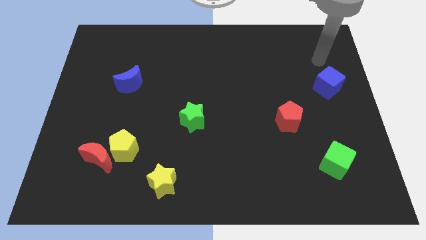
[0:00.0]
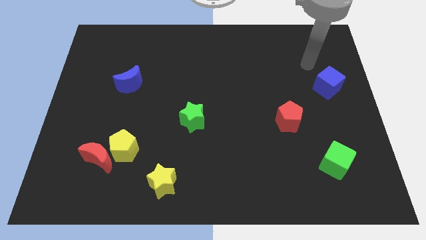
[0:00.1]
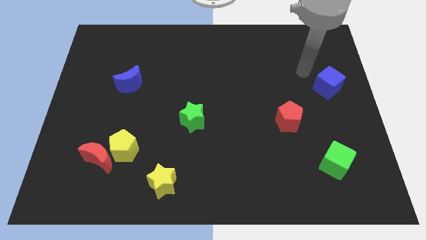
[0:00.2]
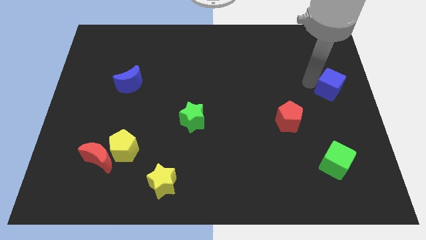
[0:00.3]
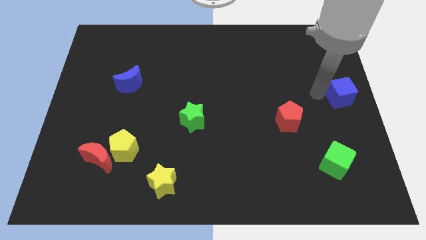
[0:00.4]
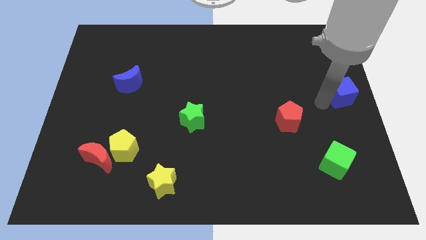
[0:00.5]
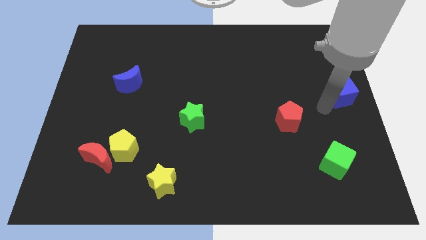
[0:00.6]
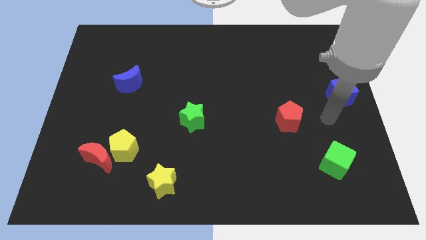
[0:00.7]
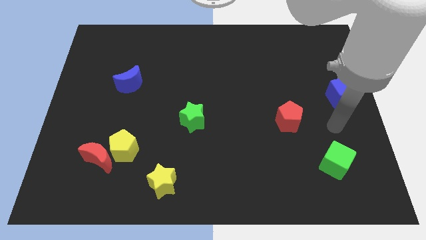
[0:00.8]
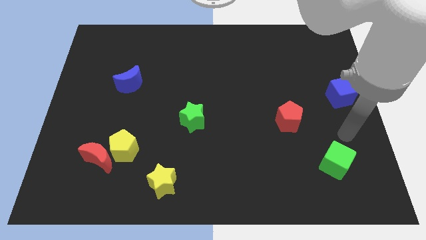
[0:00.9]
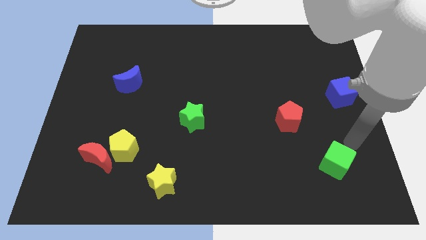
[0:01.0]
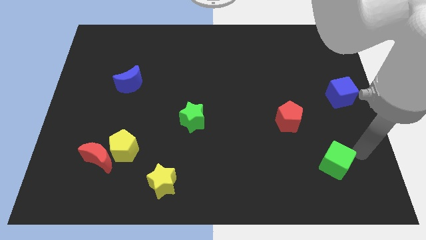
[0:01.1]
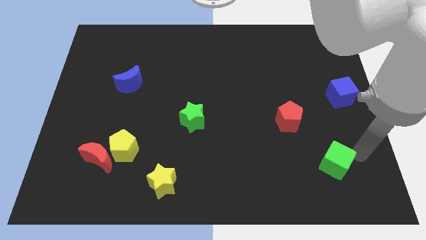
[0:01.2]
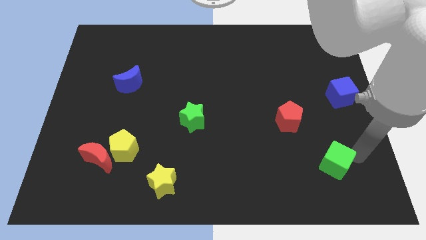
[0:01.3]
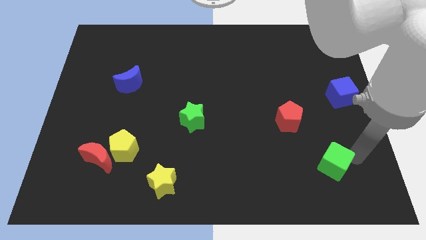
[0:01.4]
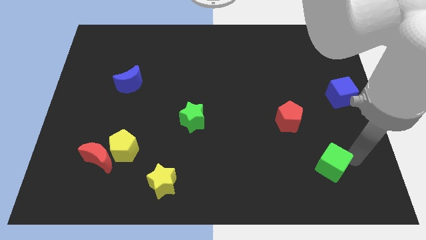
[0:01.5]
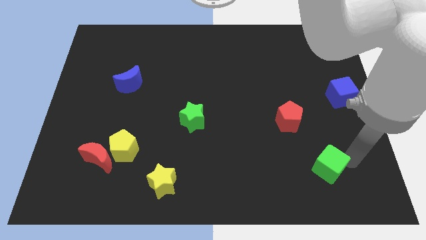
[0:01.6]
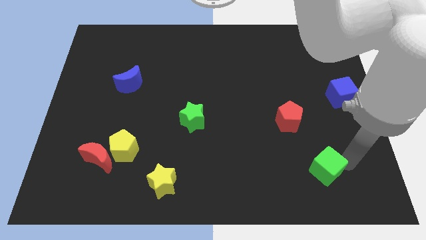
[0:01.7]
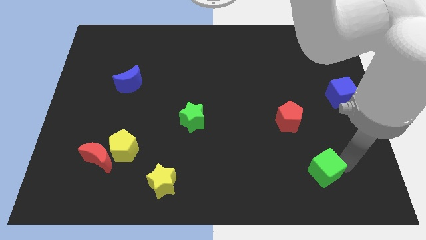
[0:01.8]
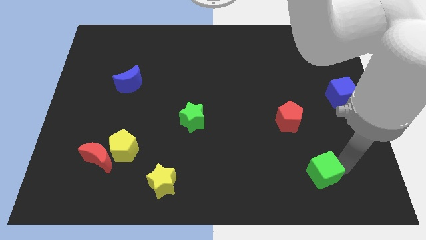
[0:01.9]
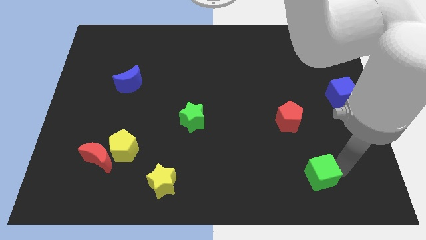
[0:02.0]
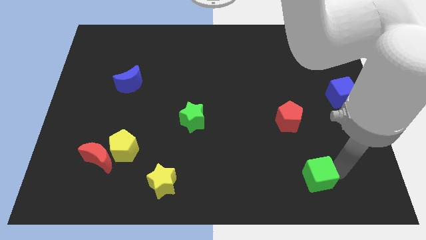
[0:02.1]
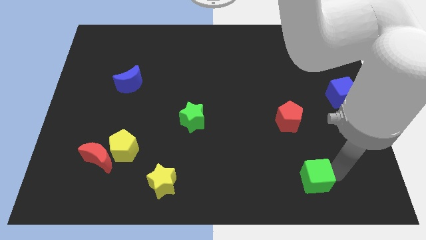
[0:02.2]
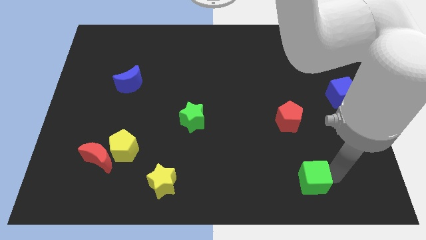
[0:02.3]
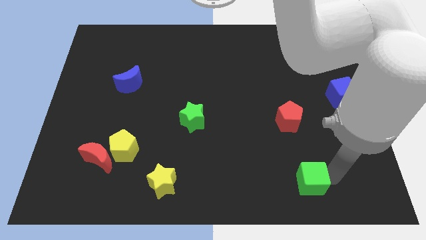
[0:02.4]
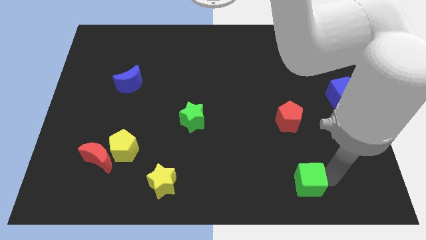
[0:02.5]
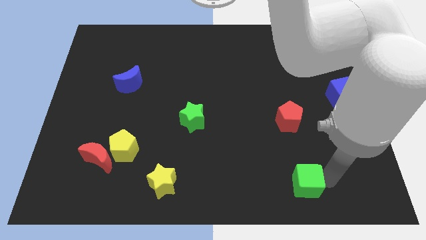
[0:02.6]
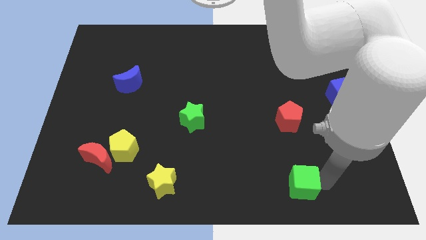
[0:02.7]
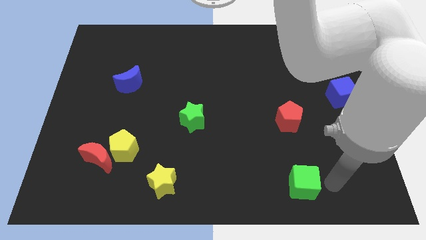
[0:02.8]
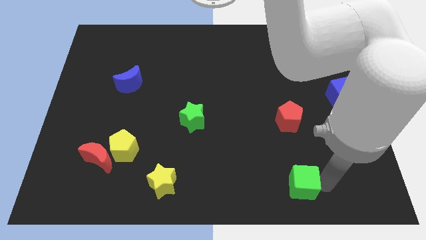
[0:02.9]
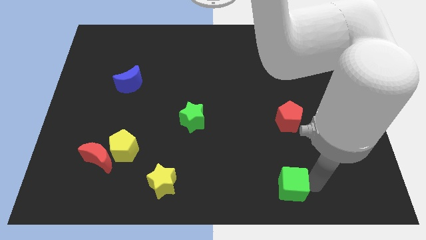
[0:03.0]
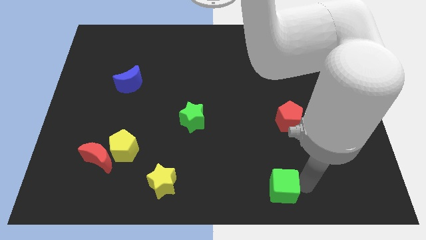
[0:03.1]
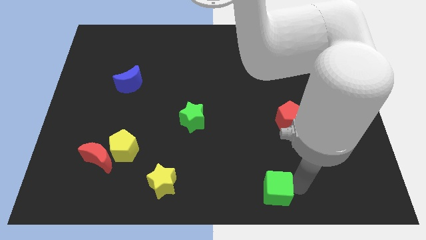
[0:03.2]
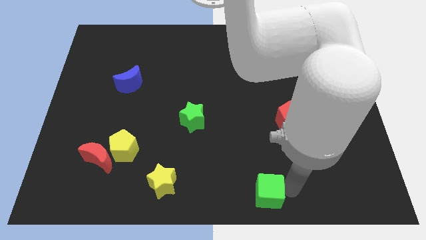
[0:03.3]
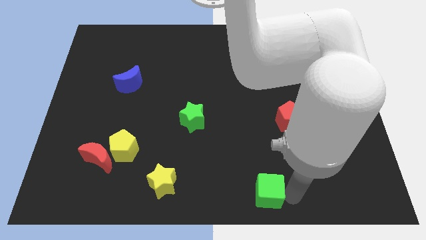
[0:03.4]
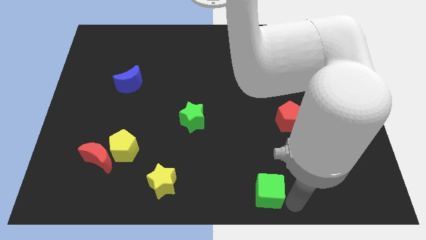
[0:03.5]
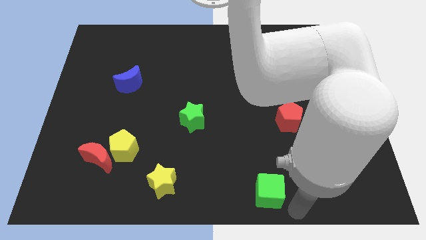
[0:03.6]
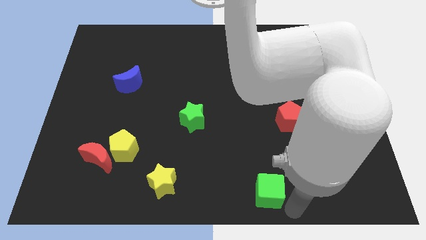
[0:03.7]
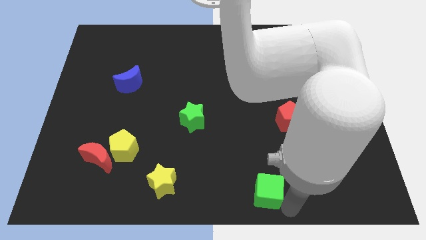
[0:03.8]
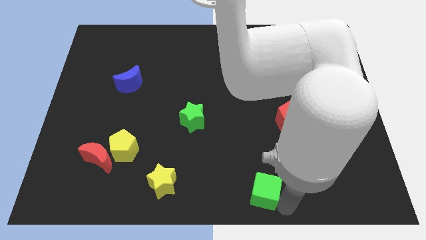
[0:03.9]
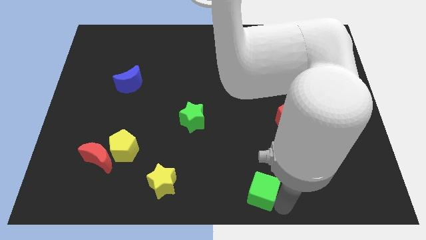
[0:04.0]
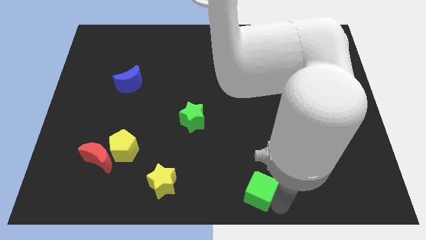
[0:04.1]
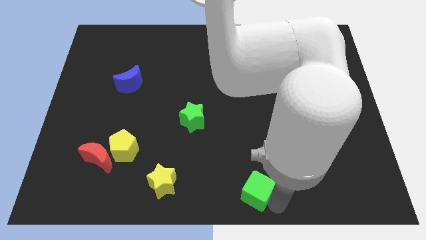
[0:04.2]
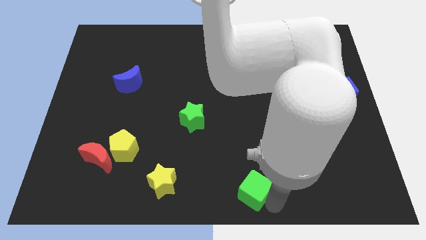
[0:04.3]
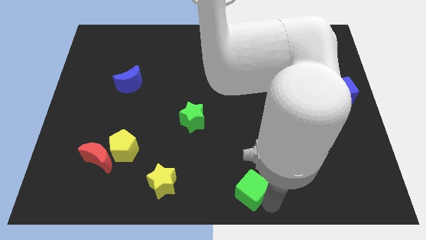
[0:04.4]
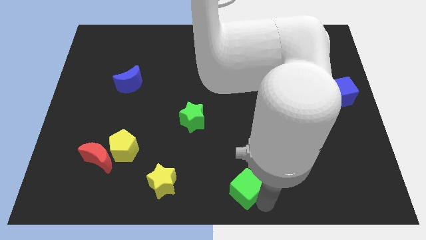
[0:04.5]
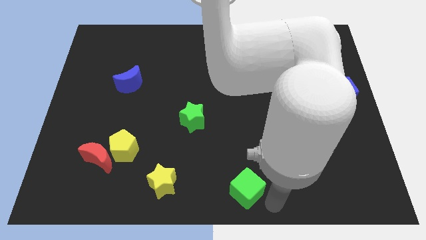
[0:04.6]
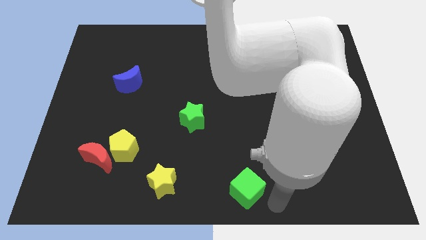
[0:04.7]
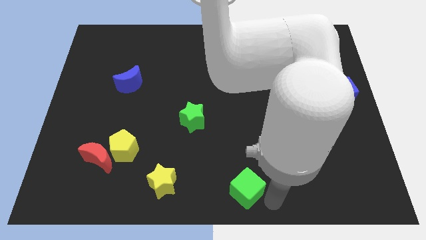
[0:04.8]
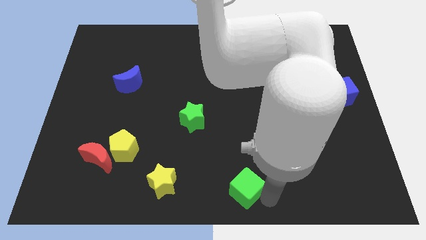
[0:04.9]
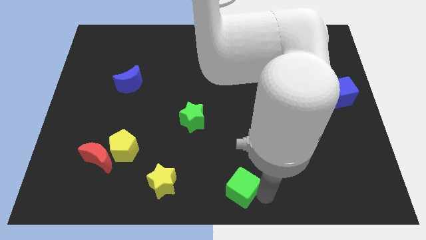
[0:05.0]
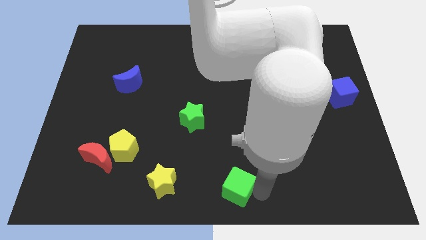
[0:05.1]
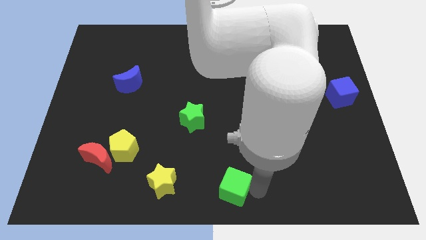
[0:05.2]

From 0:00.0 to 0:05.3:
push the green cube to the left

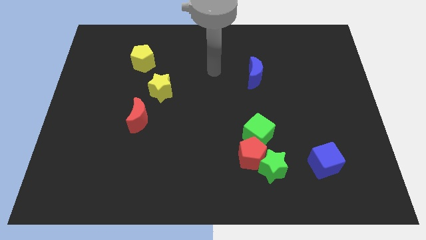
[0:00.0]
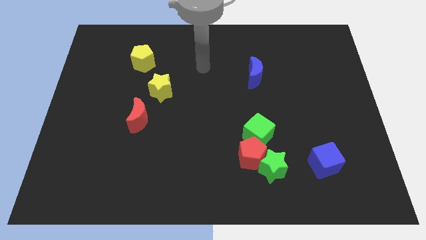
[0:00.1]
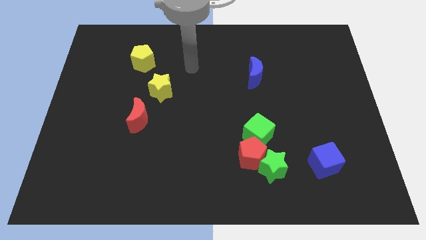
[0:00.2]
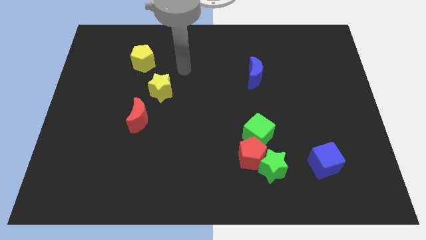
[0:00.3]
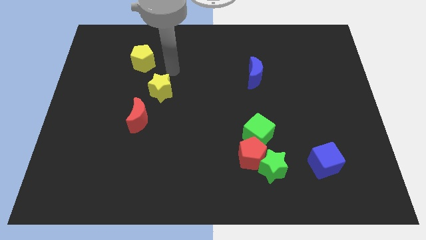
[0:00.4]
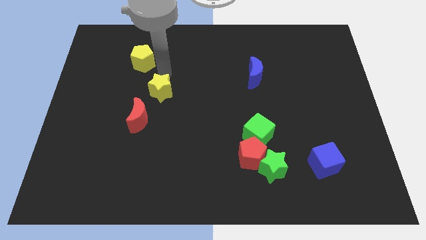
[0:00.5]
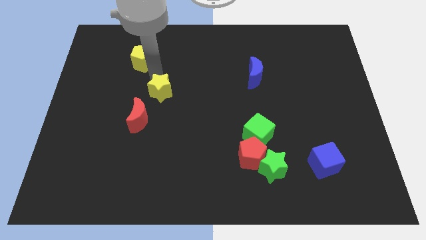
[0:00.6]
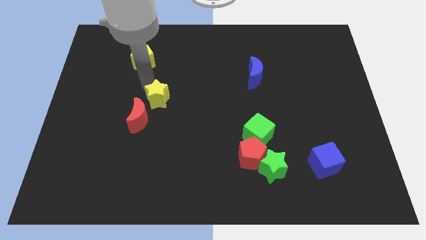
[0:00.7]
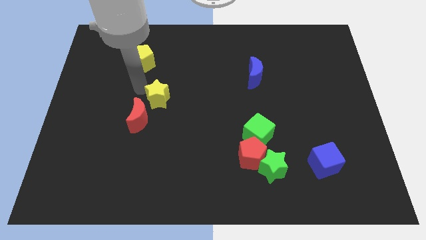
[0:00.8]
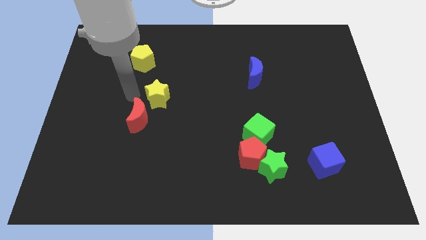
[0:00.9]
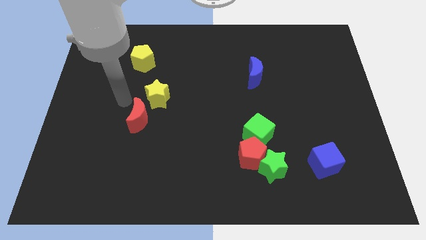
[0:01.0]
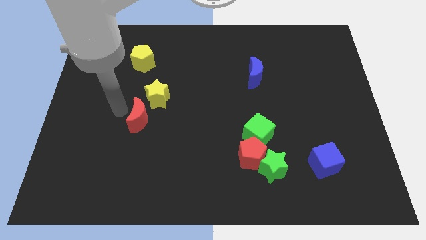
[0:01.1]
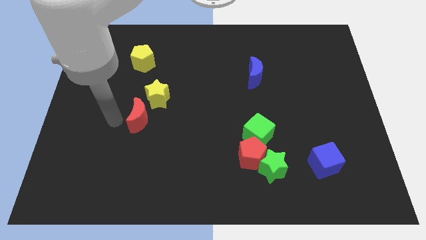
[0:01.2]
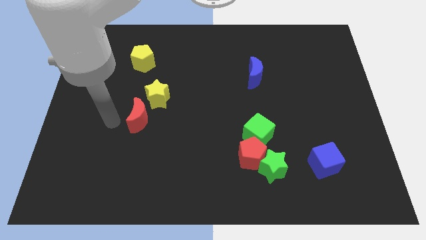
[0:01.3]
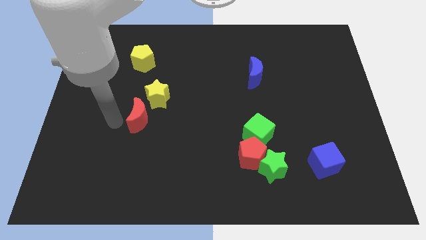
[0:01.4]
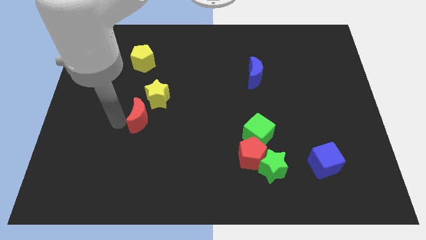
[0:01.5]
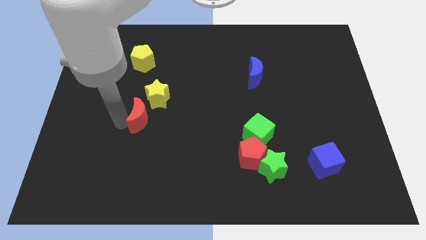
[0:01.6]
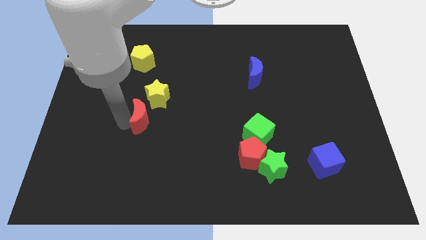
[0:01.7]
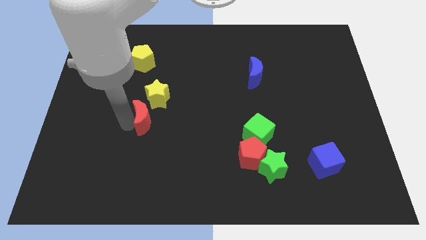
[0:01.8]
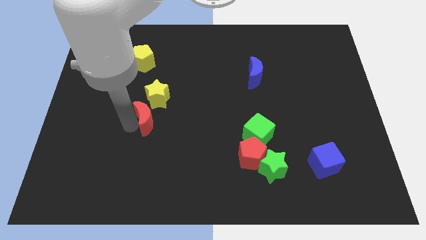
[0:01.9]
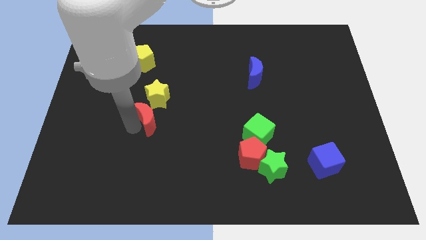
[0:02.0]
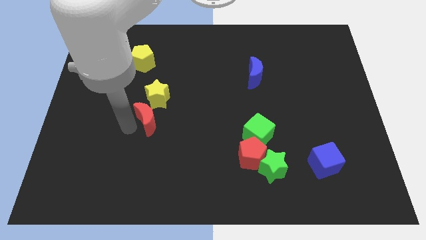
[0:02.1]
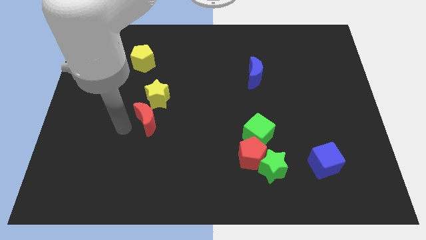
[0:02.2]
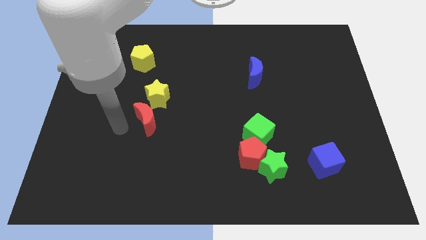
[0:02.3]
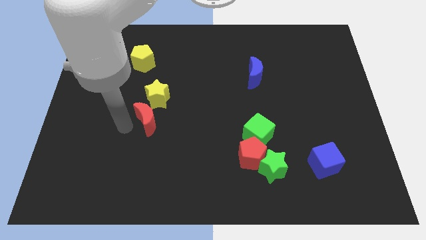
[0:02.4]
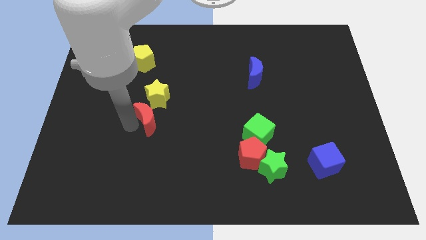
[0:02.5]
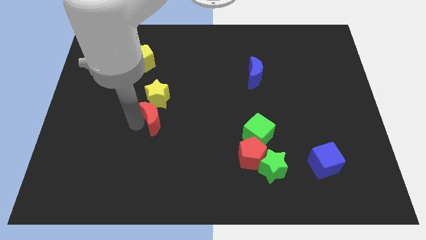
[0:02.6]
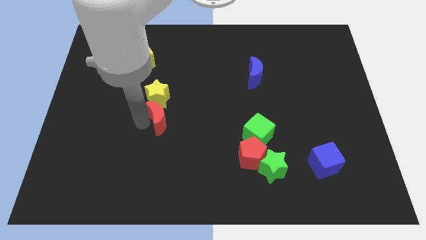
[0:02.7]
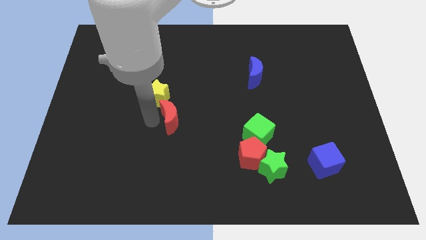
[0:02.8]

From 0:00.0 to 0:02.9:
slightly move the red moon right
